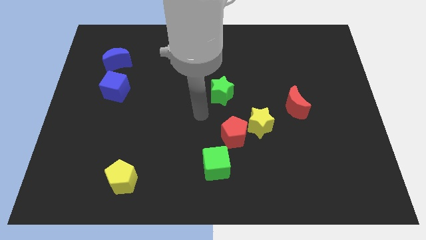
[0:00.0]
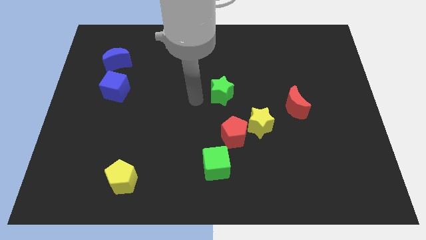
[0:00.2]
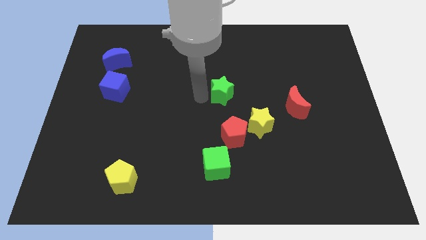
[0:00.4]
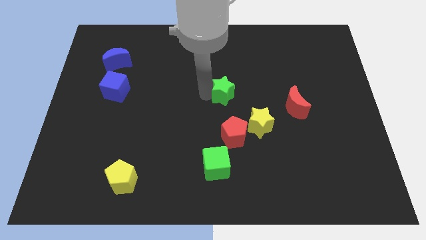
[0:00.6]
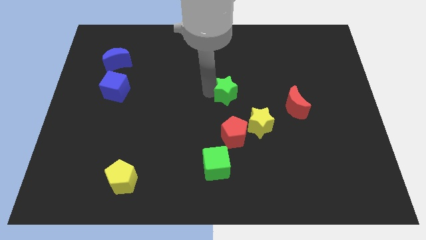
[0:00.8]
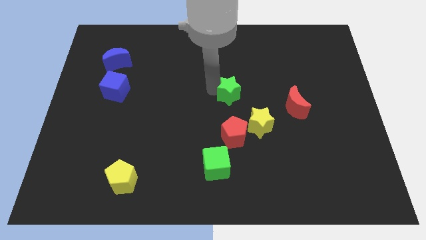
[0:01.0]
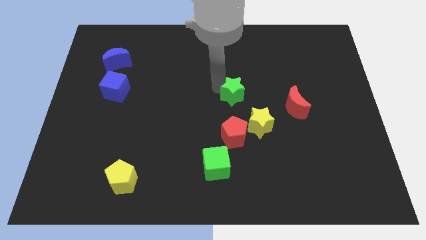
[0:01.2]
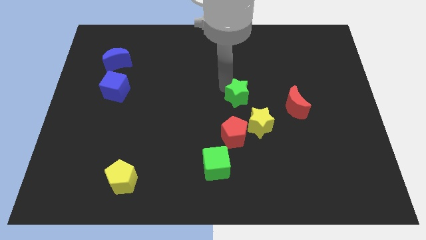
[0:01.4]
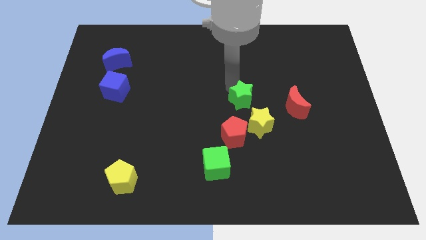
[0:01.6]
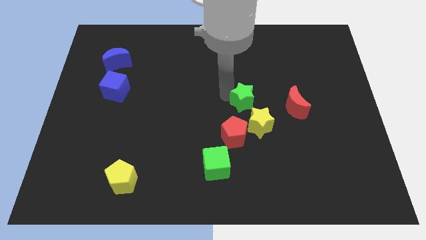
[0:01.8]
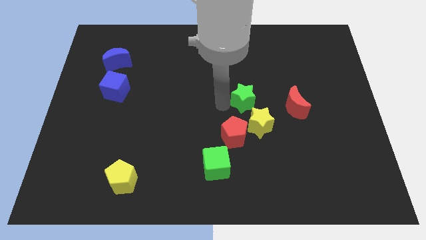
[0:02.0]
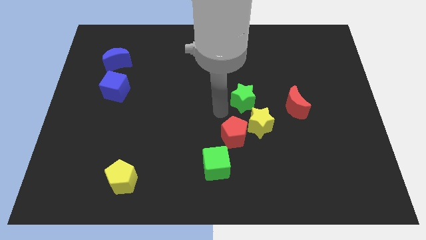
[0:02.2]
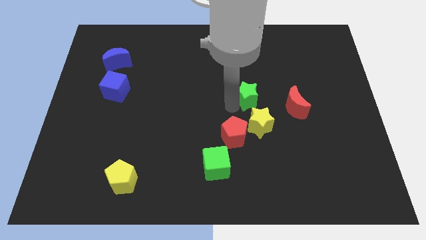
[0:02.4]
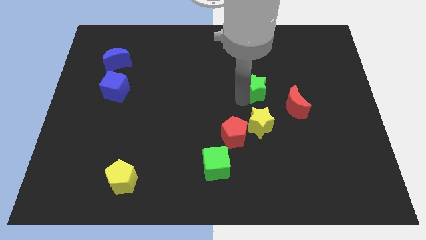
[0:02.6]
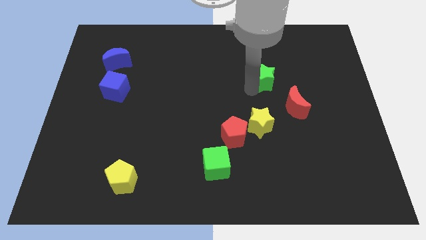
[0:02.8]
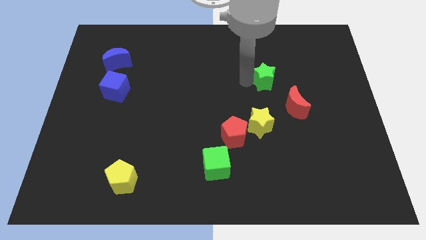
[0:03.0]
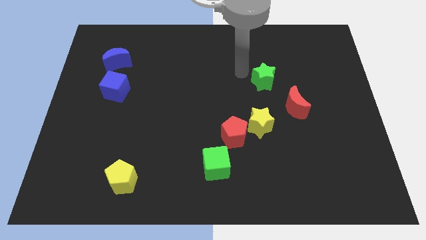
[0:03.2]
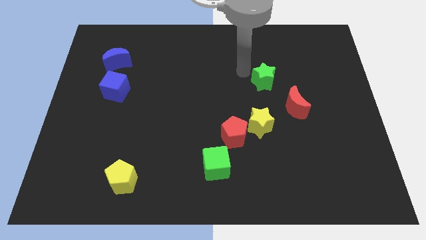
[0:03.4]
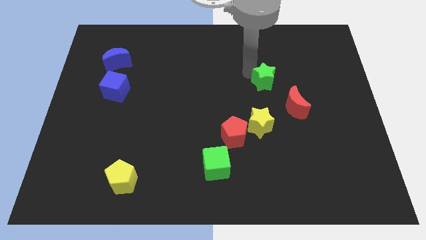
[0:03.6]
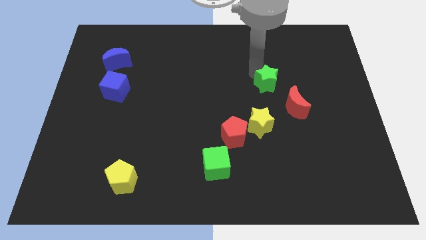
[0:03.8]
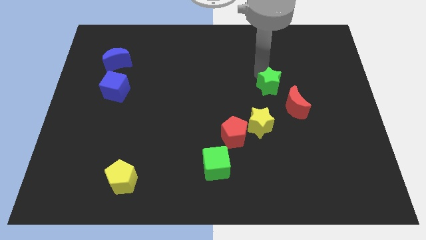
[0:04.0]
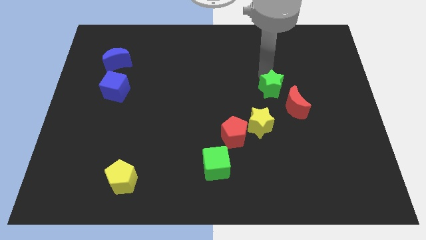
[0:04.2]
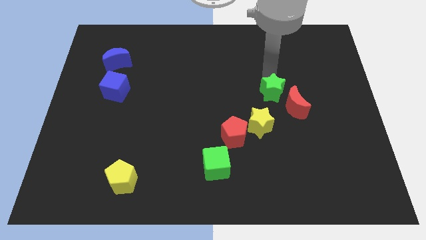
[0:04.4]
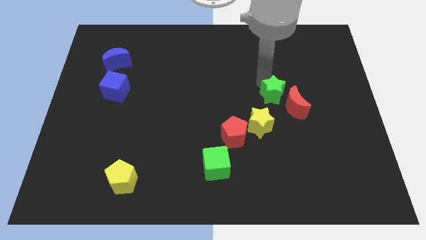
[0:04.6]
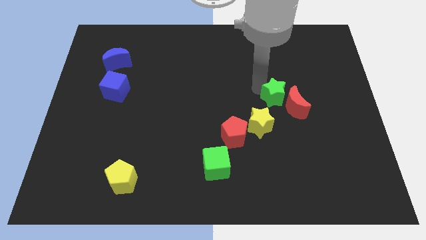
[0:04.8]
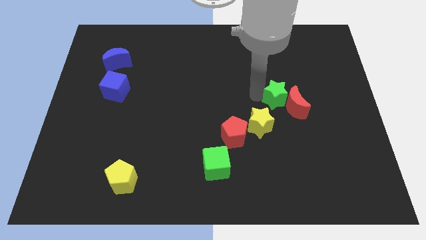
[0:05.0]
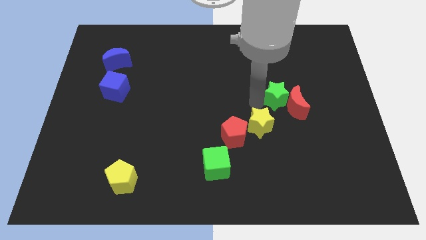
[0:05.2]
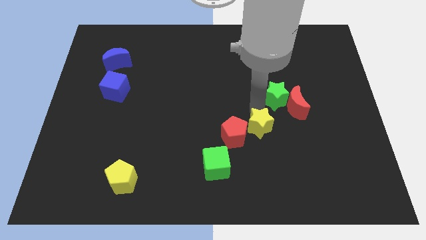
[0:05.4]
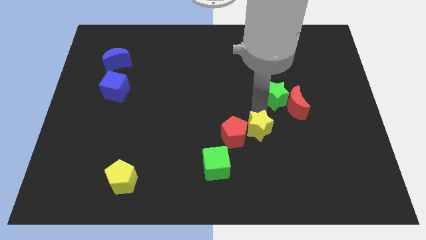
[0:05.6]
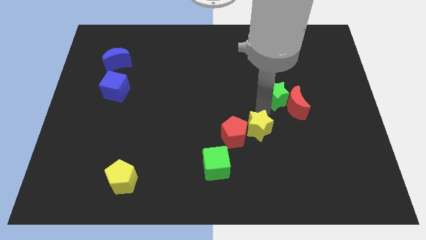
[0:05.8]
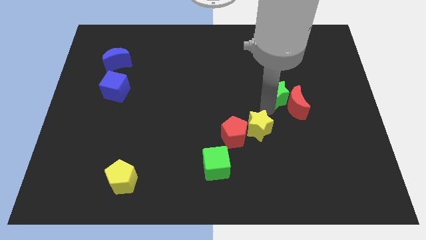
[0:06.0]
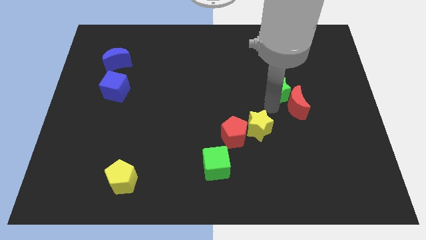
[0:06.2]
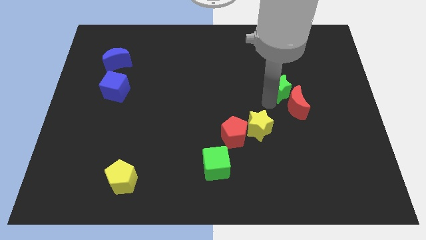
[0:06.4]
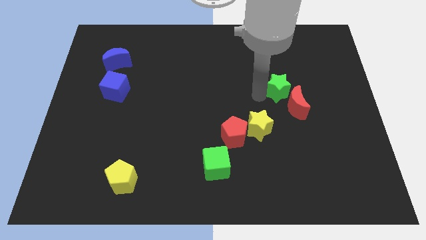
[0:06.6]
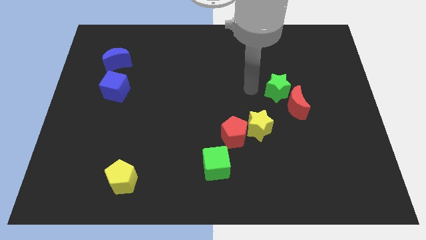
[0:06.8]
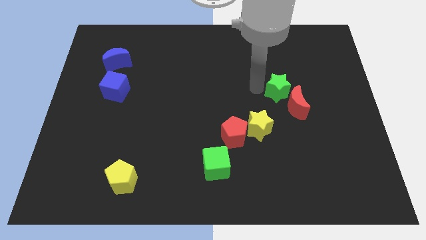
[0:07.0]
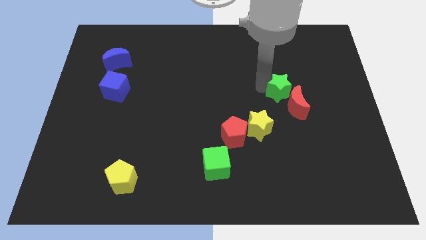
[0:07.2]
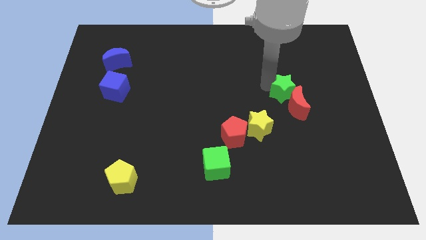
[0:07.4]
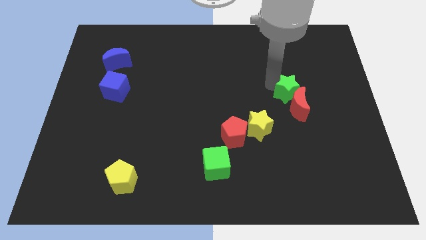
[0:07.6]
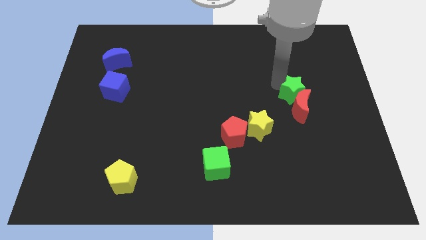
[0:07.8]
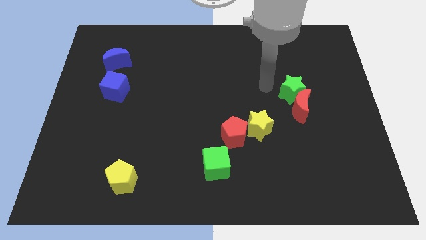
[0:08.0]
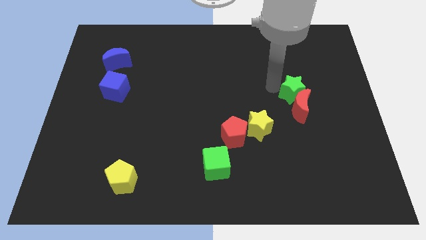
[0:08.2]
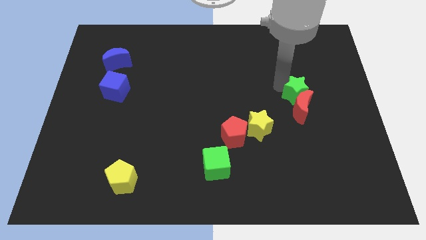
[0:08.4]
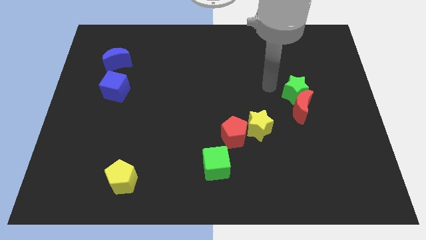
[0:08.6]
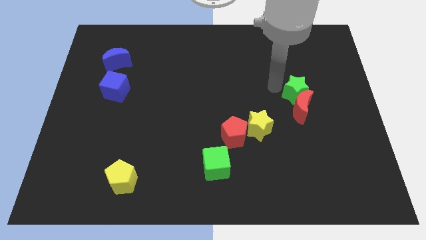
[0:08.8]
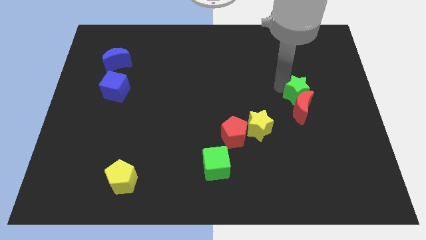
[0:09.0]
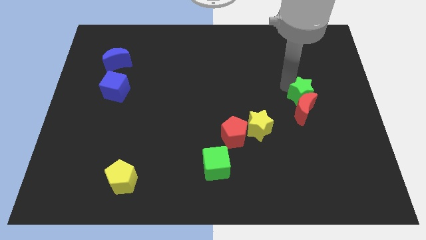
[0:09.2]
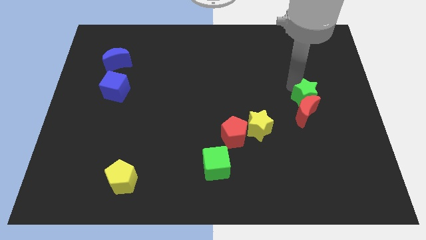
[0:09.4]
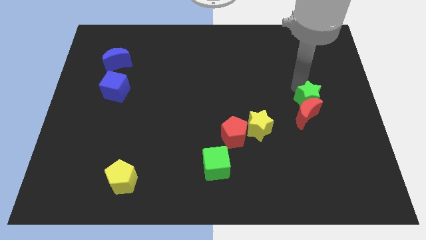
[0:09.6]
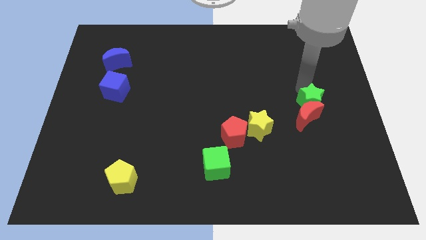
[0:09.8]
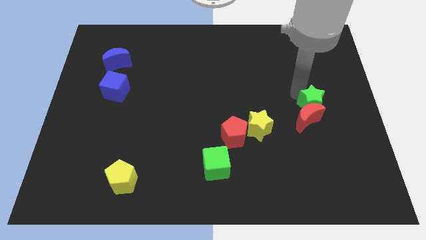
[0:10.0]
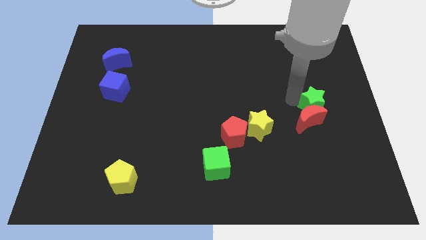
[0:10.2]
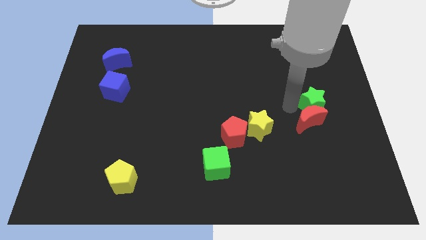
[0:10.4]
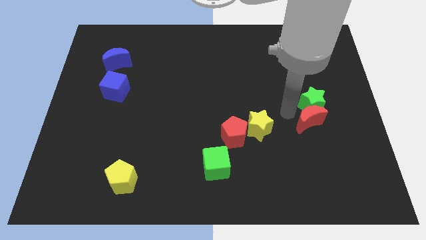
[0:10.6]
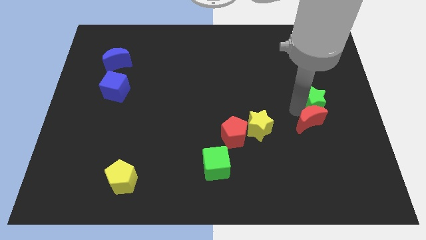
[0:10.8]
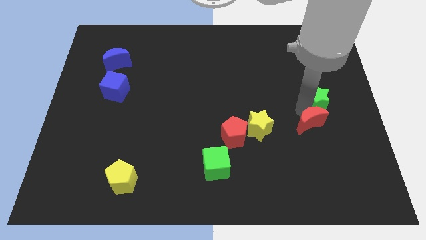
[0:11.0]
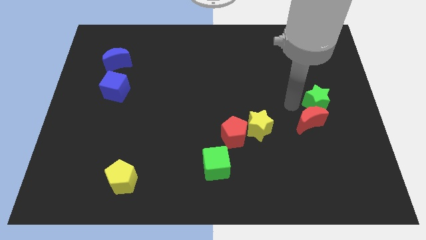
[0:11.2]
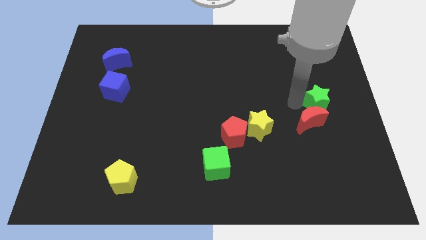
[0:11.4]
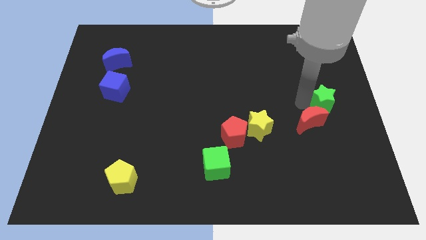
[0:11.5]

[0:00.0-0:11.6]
put the green star to the center right

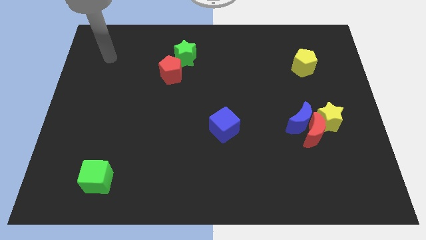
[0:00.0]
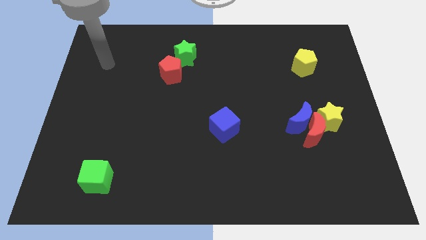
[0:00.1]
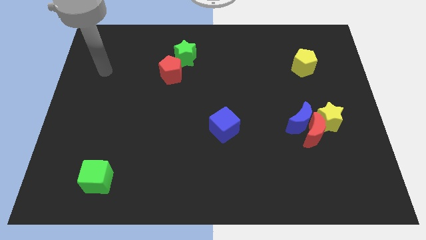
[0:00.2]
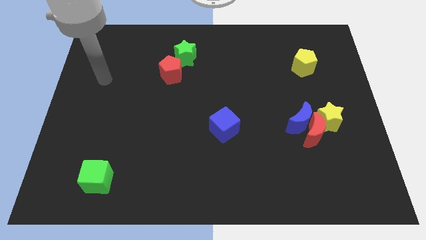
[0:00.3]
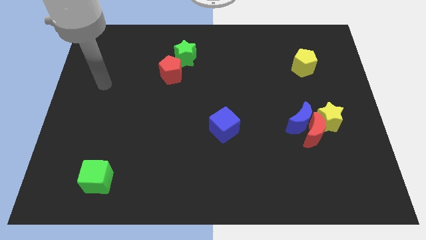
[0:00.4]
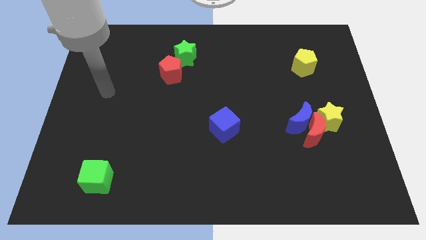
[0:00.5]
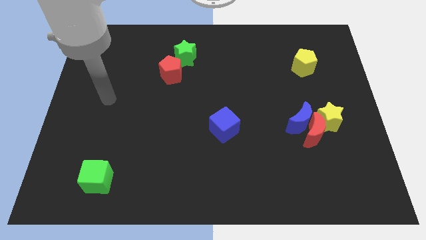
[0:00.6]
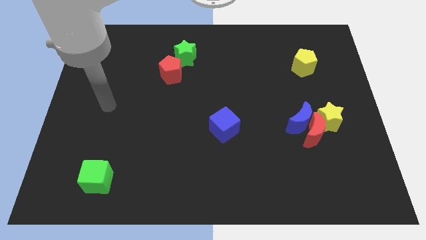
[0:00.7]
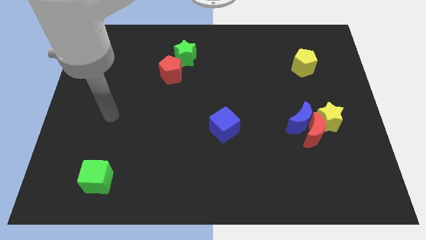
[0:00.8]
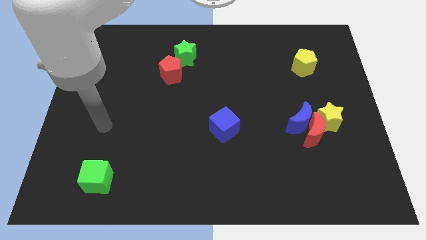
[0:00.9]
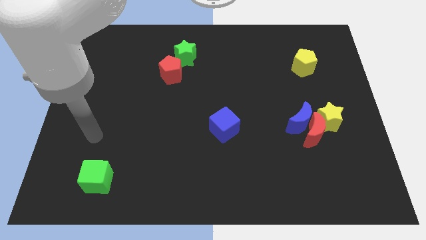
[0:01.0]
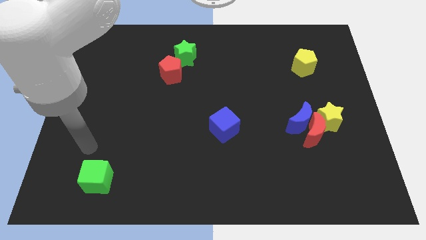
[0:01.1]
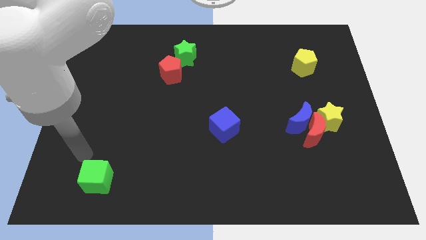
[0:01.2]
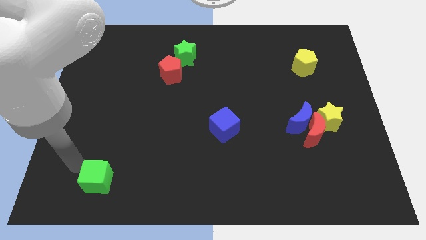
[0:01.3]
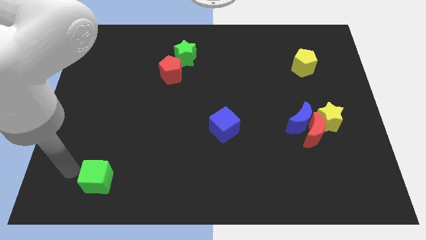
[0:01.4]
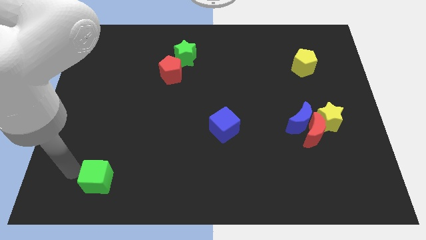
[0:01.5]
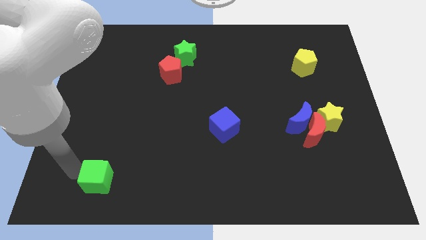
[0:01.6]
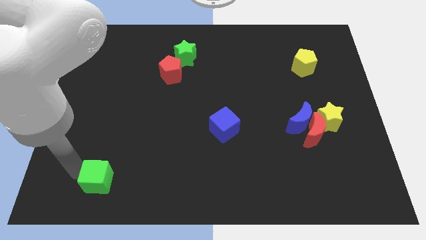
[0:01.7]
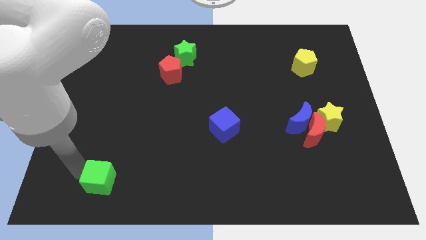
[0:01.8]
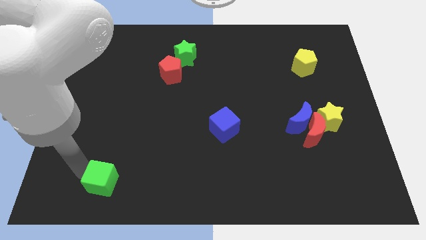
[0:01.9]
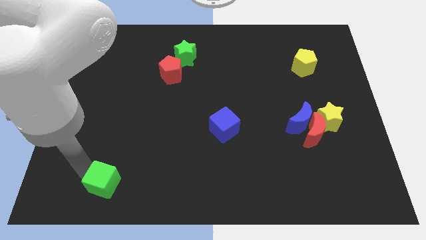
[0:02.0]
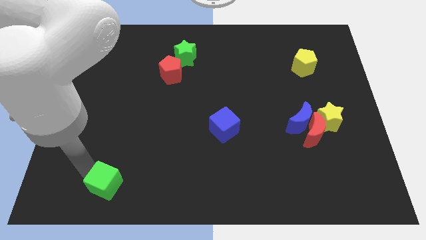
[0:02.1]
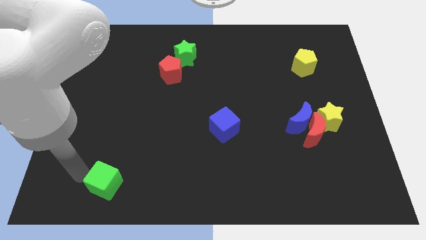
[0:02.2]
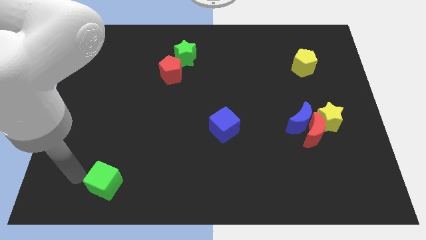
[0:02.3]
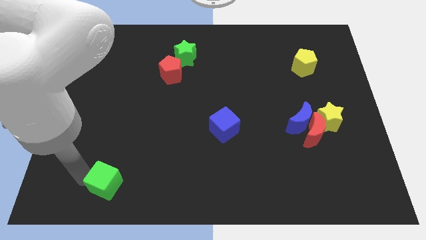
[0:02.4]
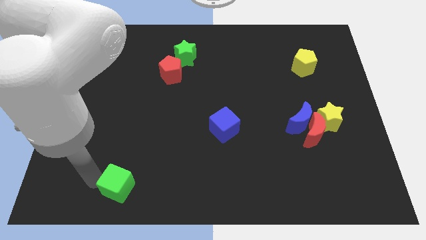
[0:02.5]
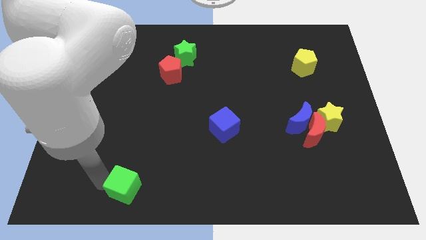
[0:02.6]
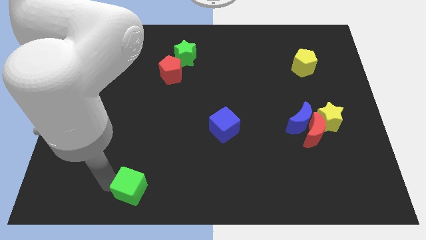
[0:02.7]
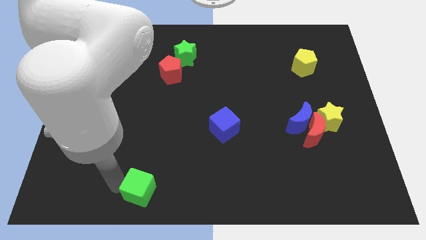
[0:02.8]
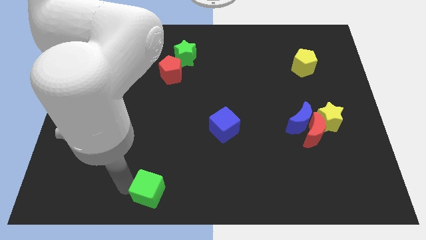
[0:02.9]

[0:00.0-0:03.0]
move the green cube to the bottom
